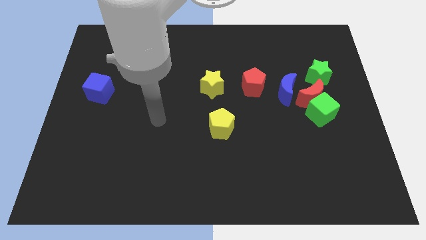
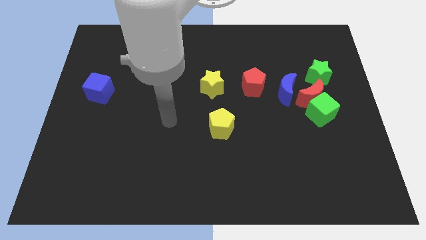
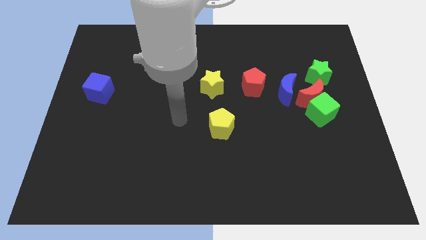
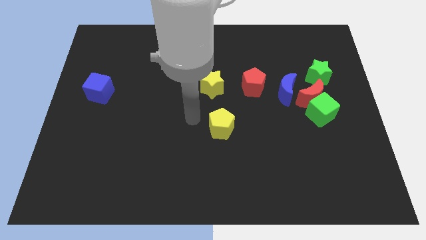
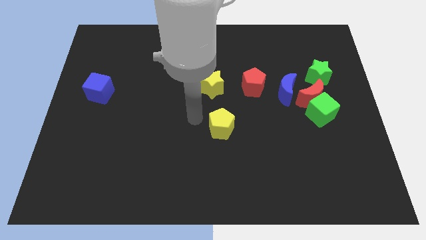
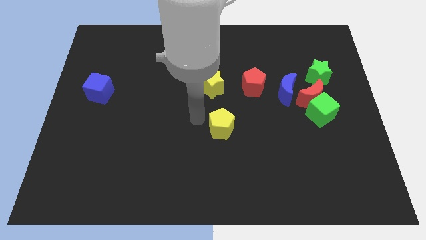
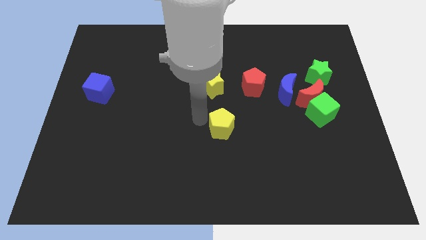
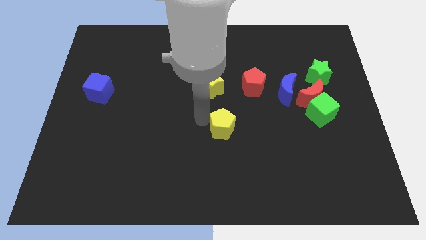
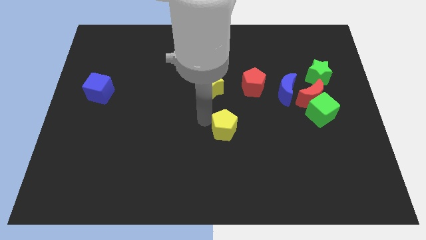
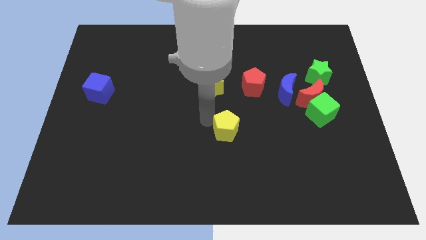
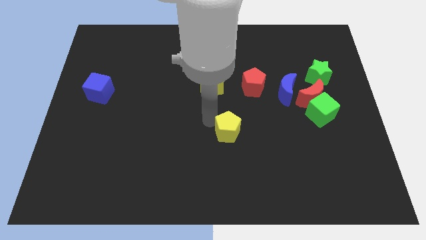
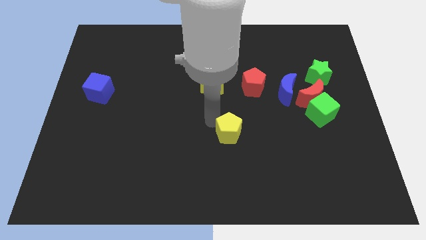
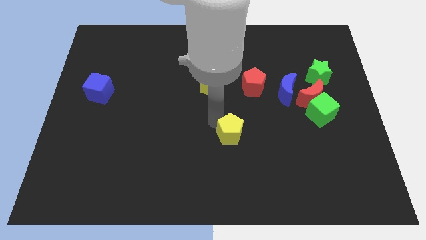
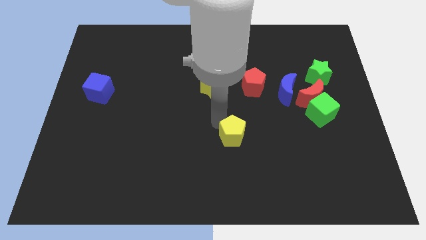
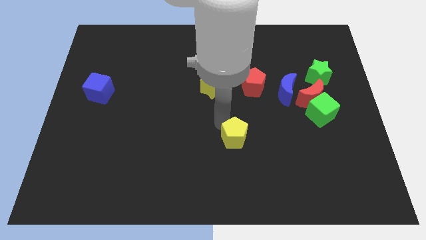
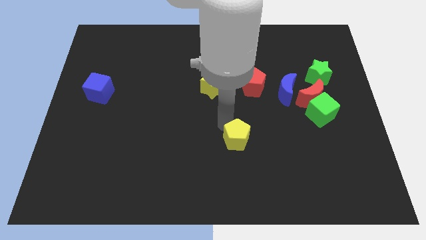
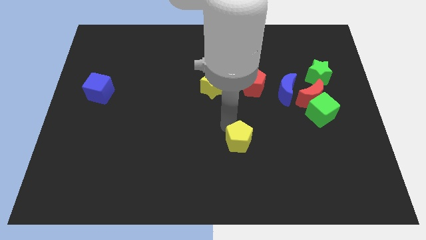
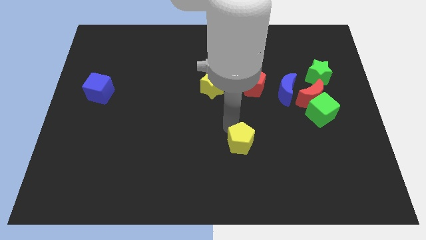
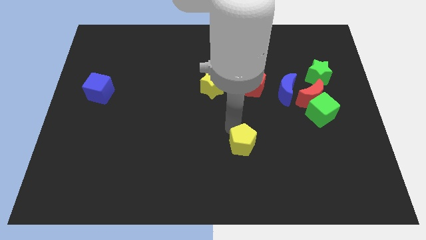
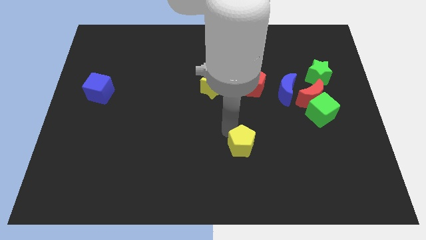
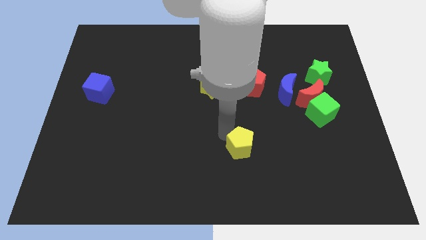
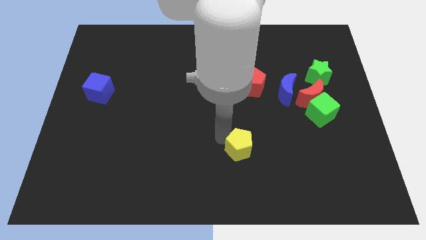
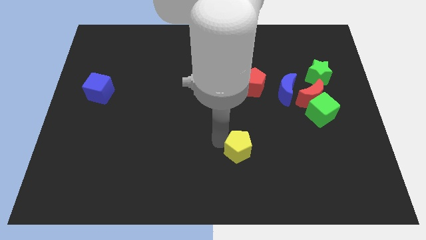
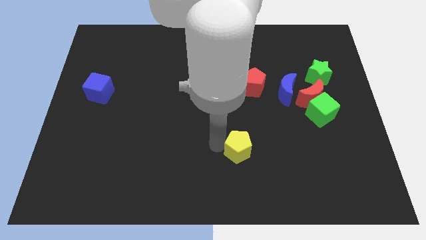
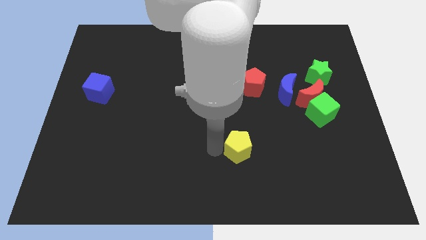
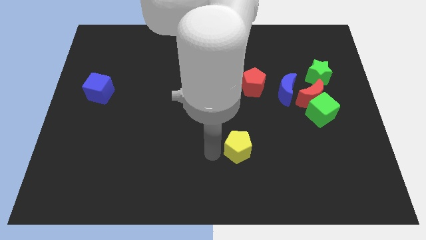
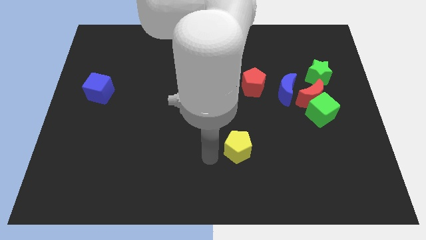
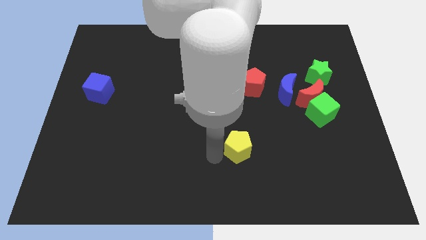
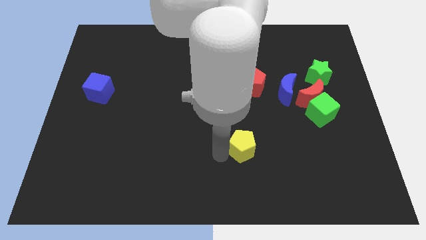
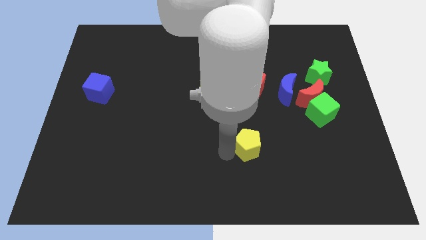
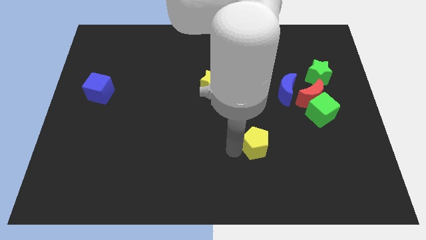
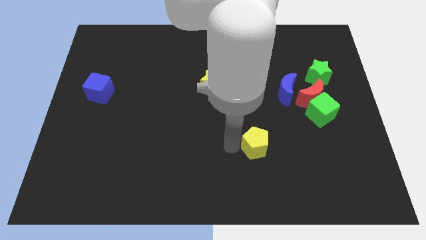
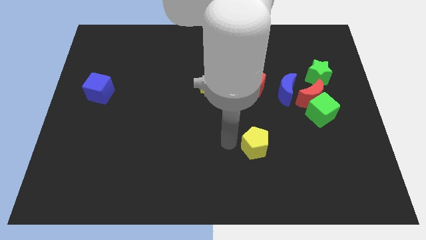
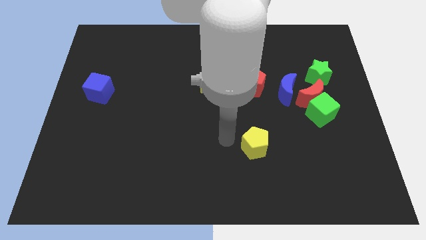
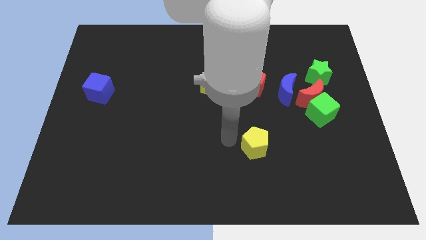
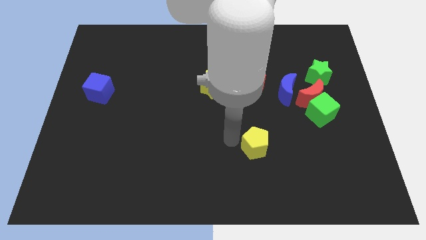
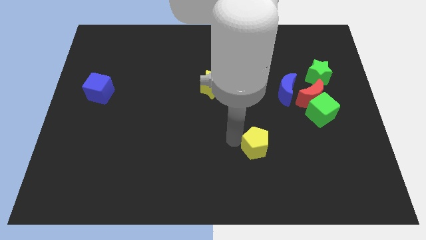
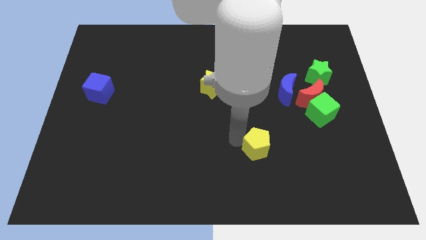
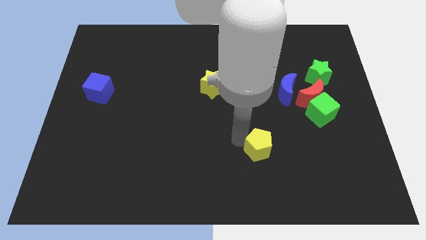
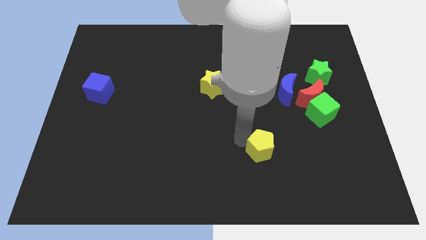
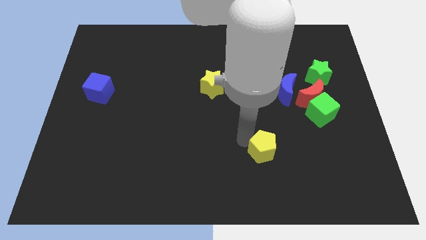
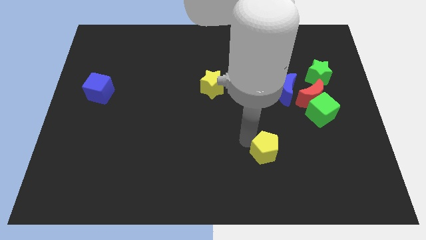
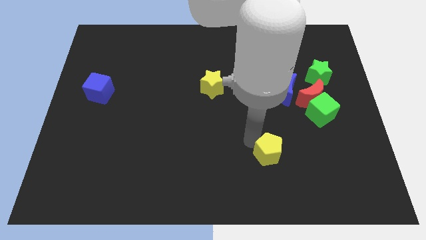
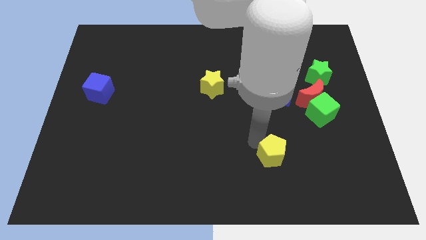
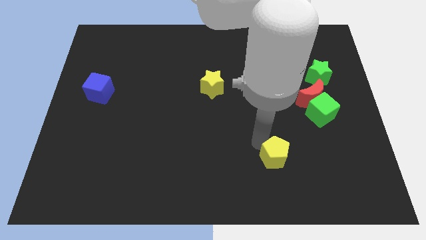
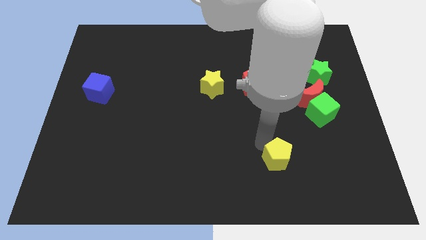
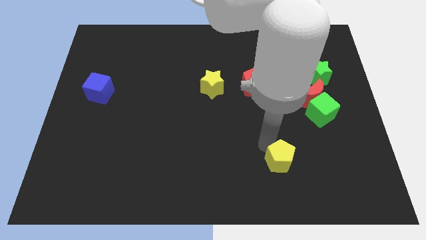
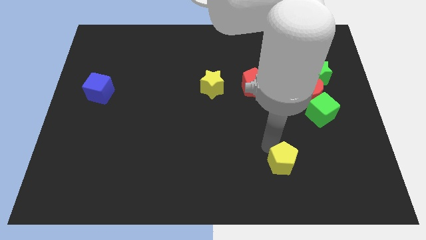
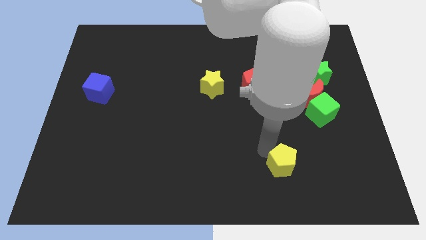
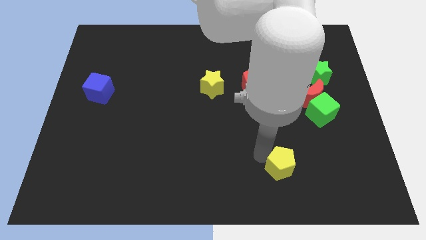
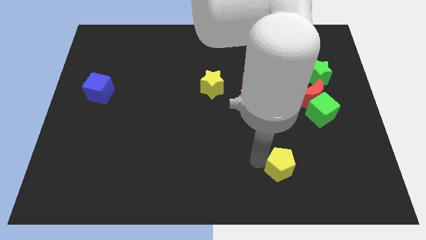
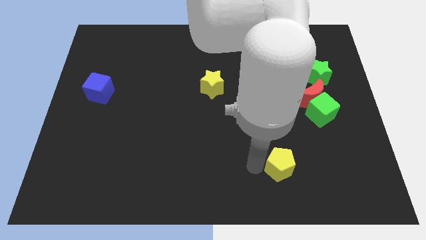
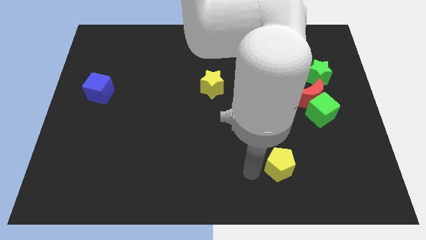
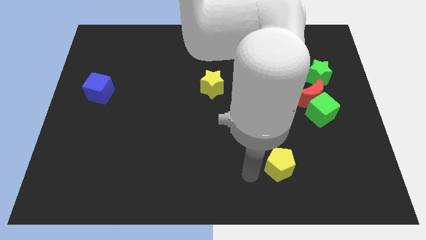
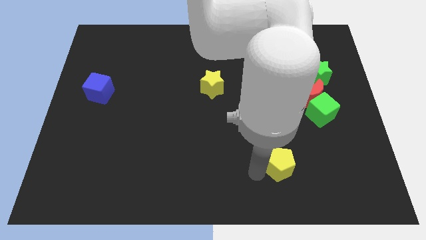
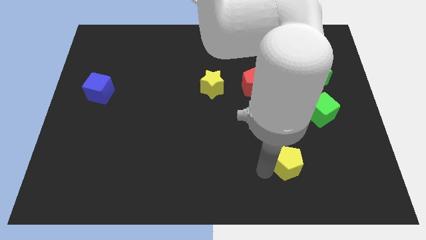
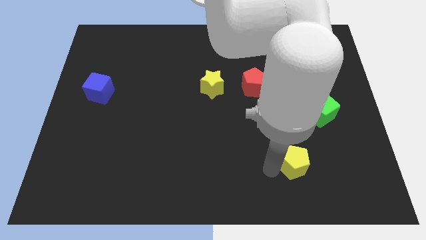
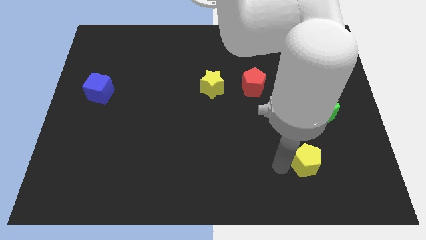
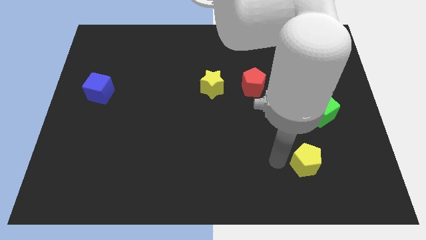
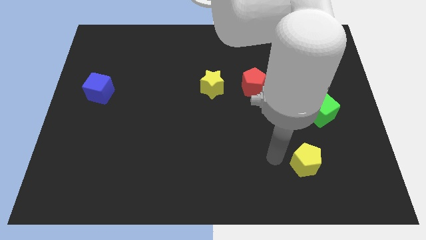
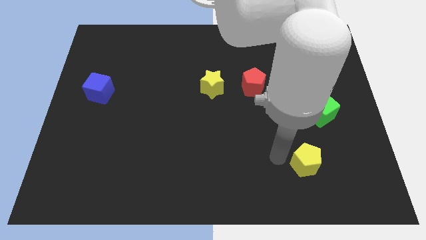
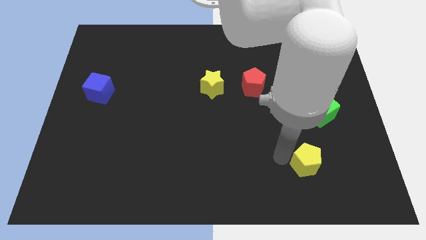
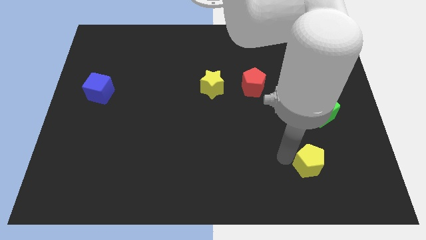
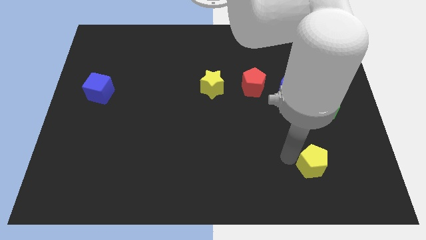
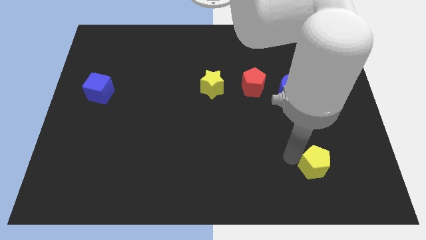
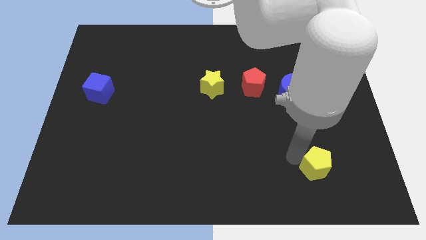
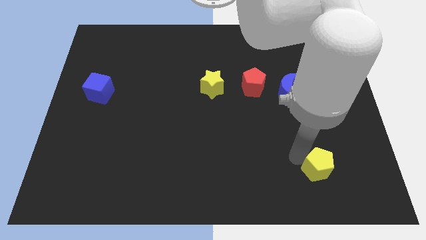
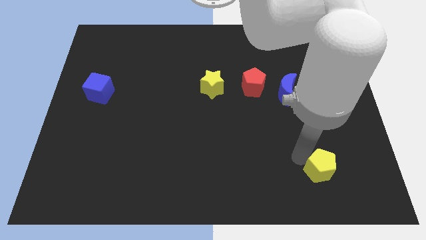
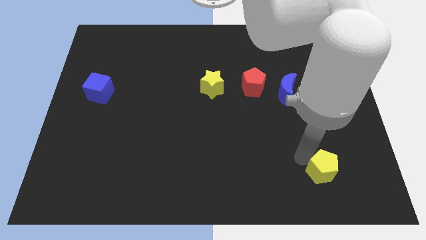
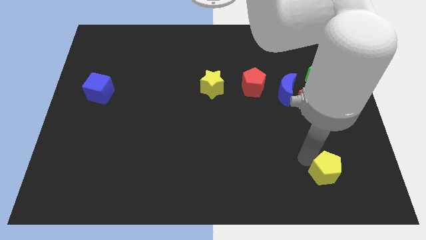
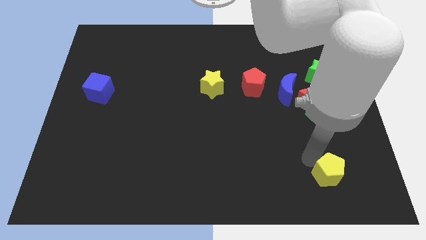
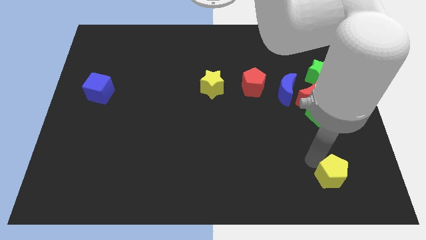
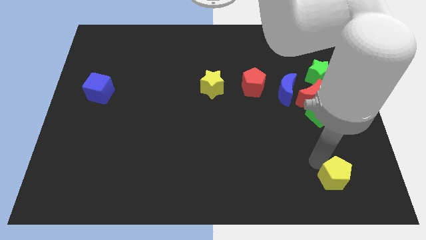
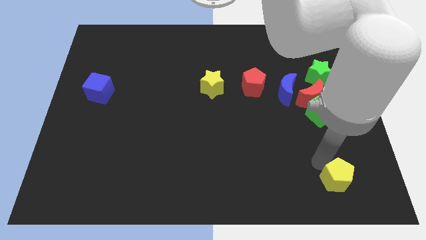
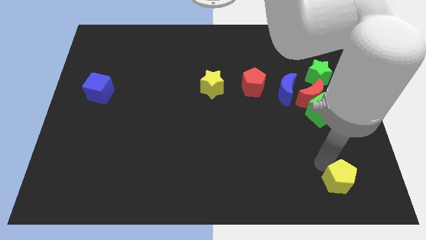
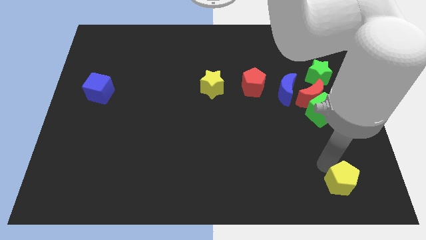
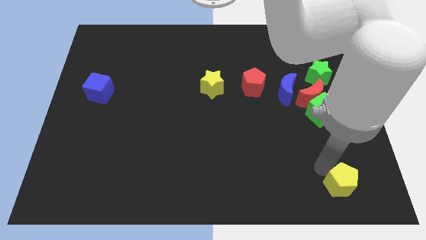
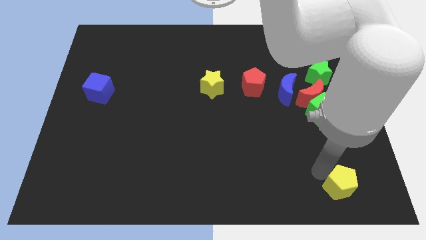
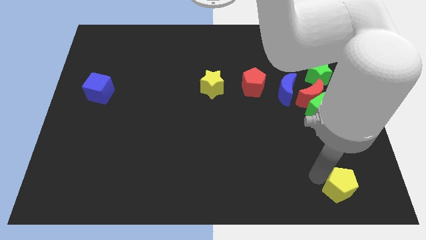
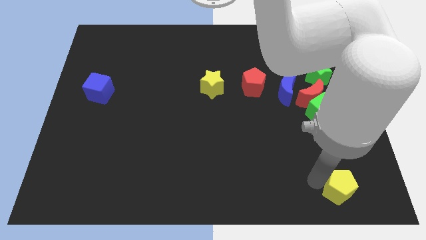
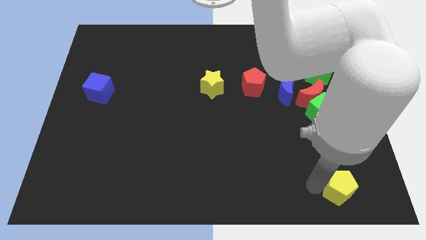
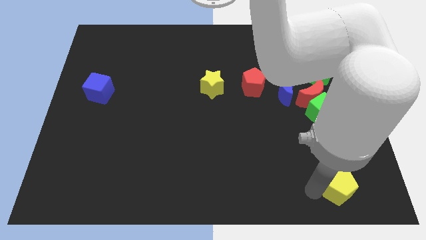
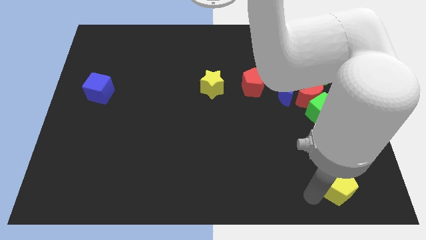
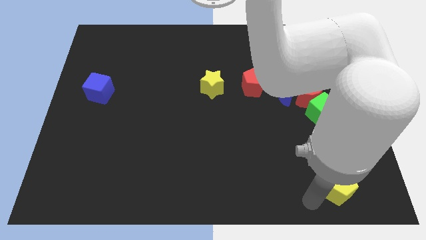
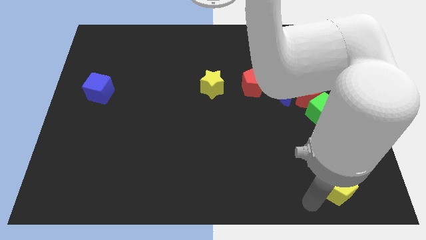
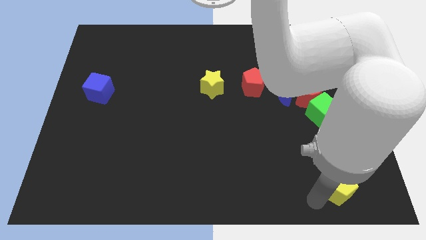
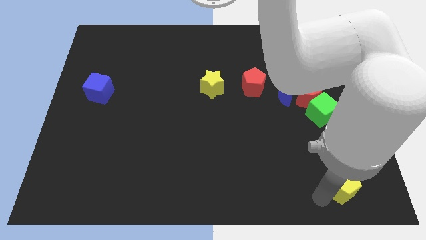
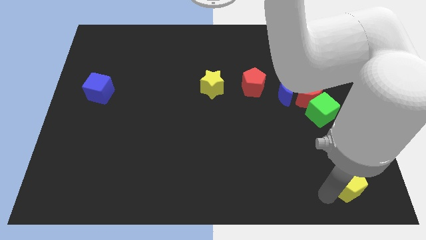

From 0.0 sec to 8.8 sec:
slide the yellow pentagon to the bottom right of the board
